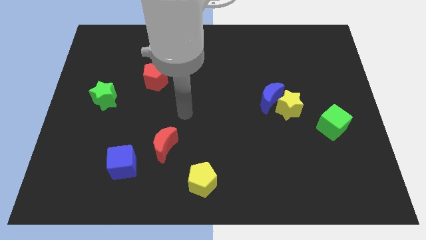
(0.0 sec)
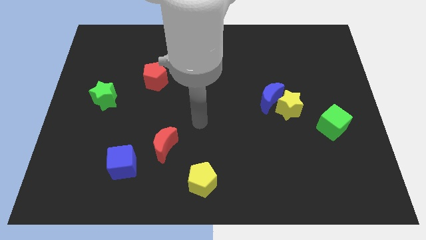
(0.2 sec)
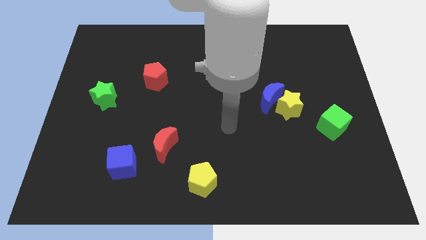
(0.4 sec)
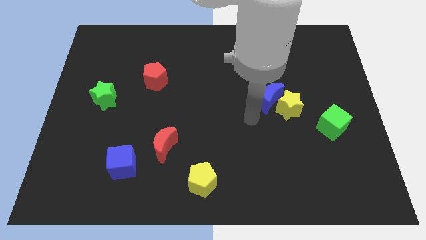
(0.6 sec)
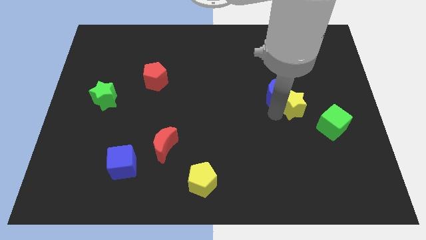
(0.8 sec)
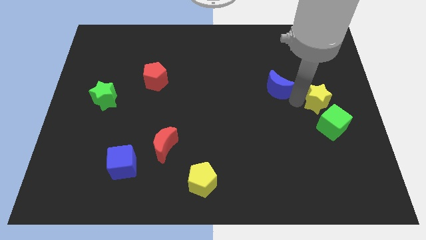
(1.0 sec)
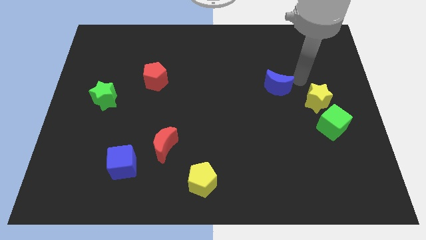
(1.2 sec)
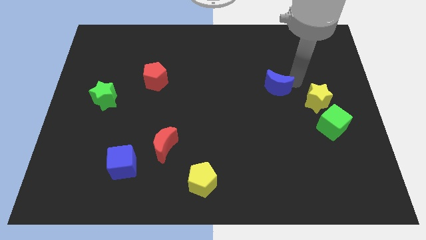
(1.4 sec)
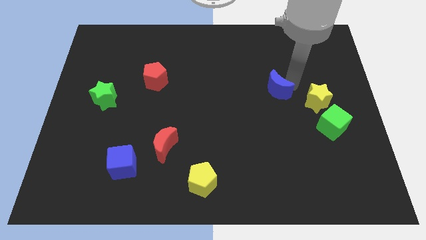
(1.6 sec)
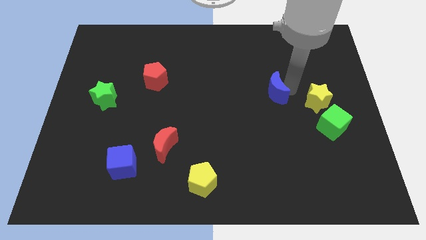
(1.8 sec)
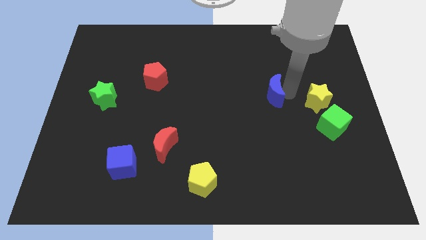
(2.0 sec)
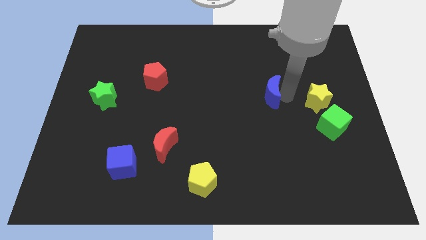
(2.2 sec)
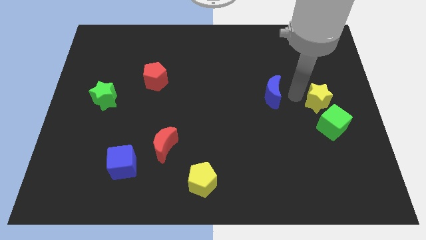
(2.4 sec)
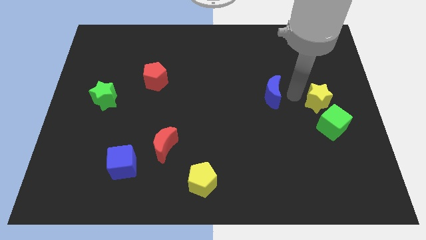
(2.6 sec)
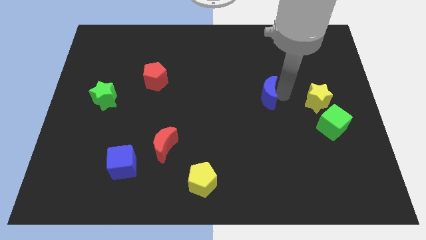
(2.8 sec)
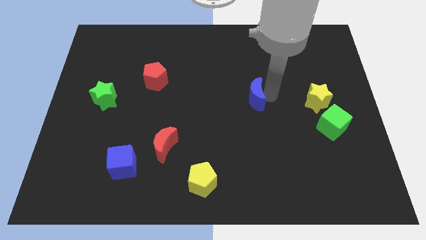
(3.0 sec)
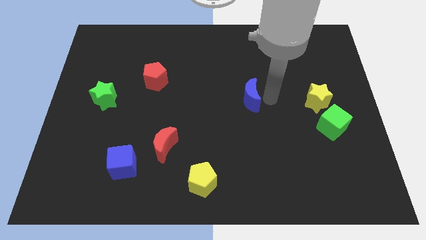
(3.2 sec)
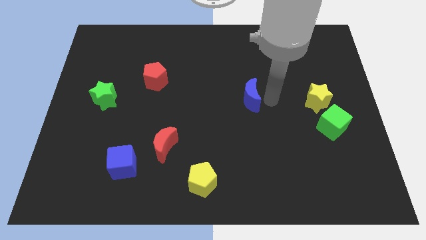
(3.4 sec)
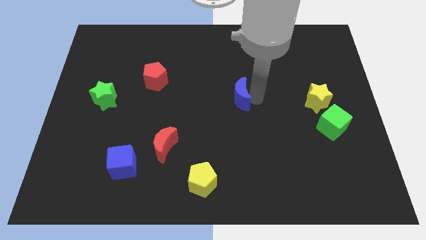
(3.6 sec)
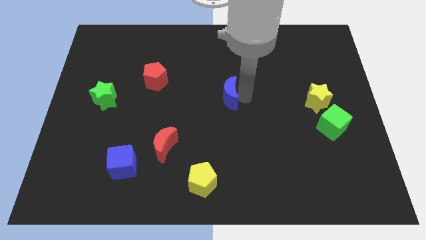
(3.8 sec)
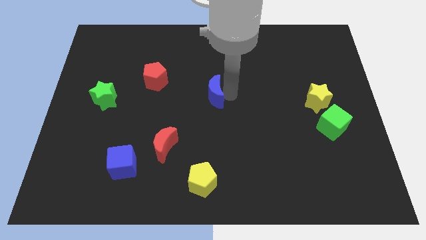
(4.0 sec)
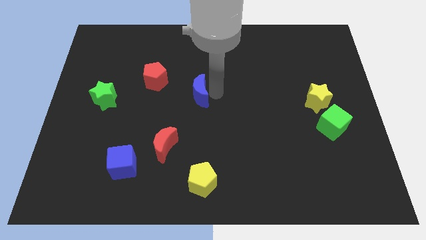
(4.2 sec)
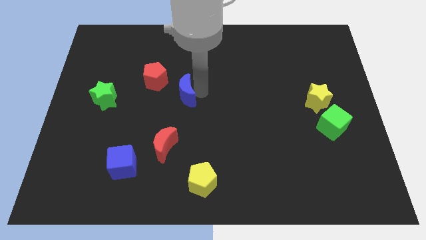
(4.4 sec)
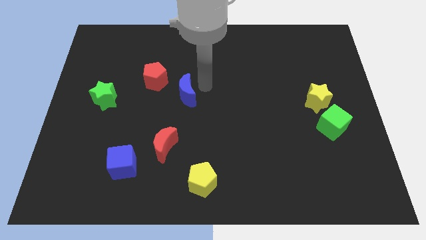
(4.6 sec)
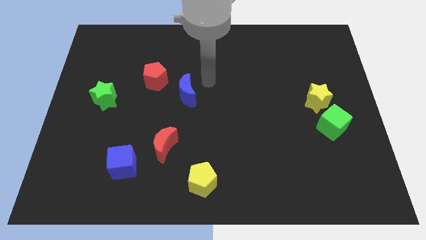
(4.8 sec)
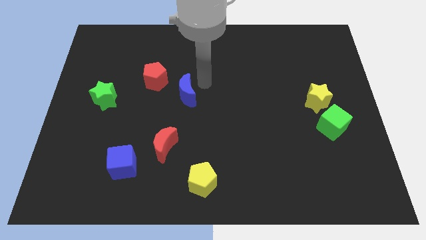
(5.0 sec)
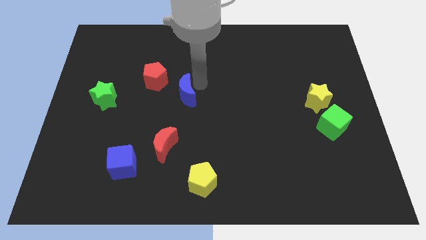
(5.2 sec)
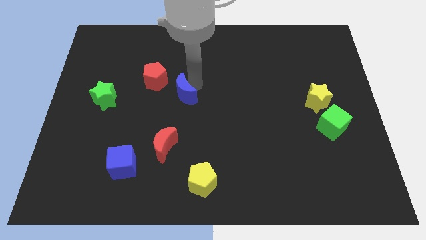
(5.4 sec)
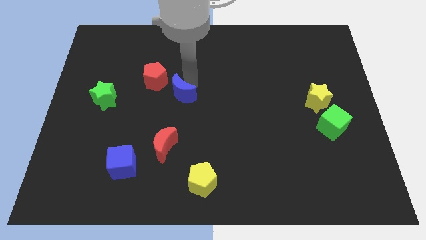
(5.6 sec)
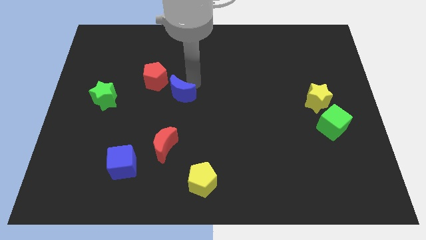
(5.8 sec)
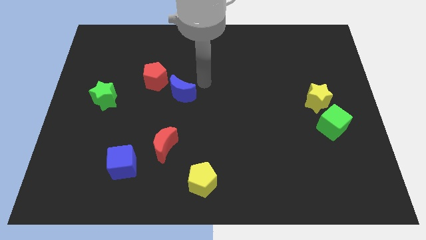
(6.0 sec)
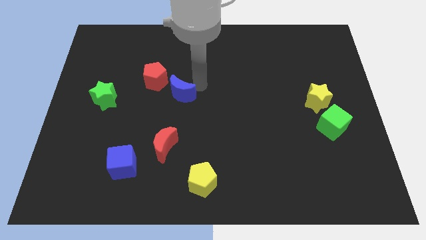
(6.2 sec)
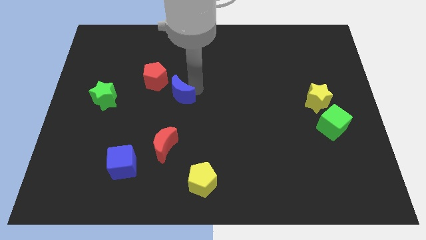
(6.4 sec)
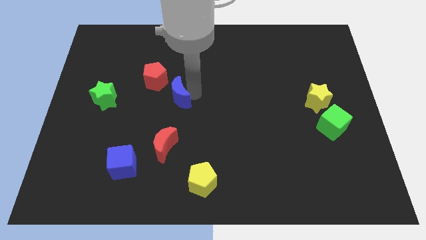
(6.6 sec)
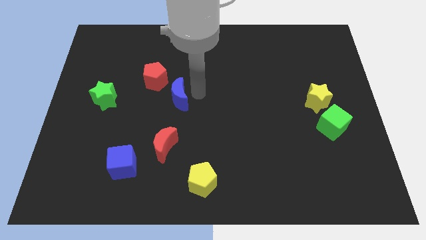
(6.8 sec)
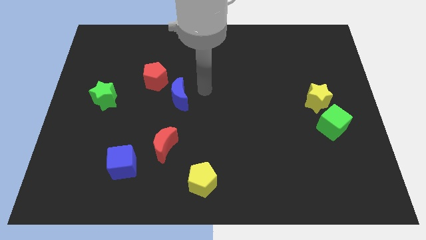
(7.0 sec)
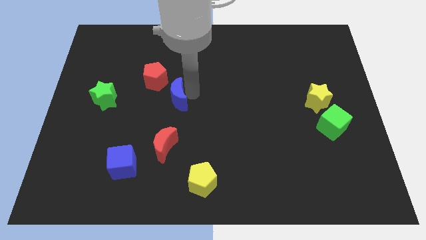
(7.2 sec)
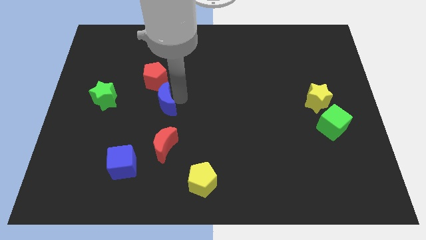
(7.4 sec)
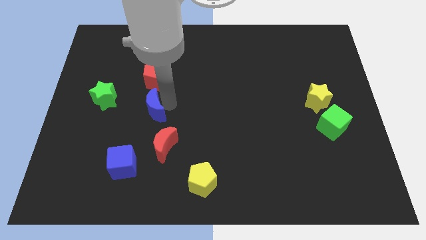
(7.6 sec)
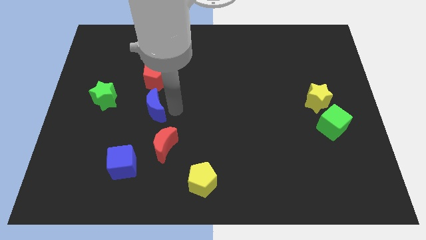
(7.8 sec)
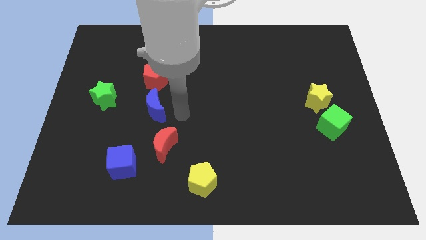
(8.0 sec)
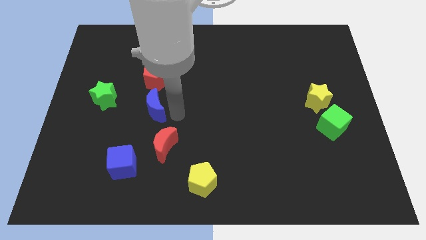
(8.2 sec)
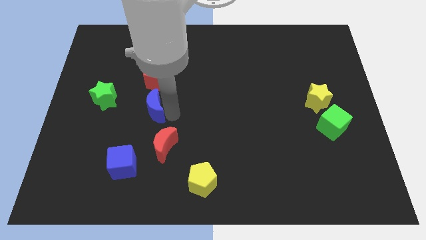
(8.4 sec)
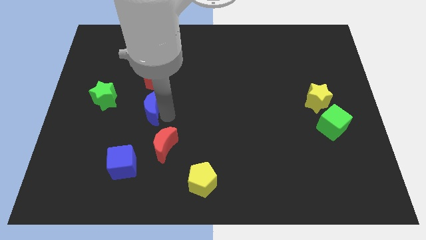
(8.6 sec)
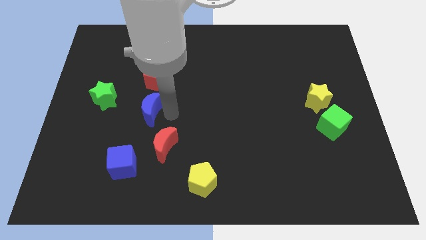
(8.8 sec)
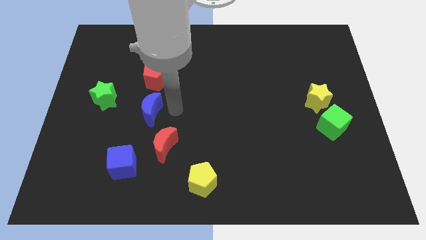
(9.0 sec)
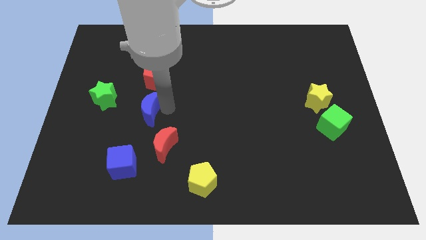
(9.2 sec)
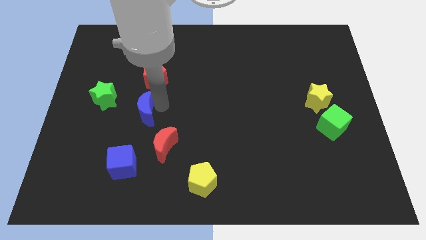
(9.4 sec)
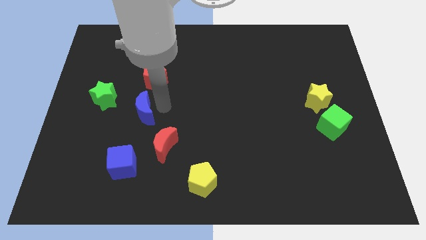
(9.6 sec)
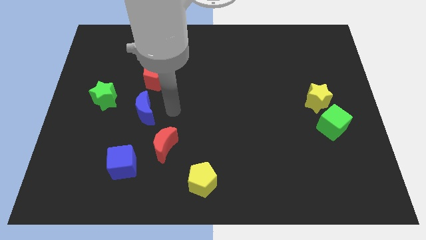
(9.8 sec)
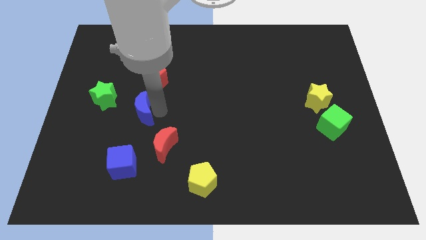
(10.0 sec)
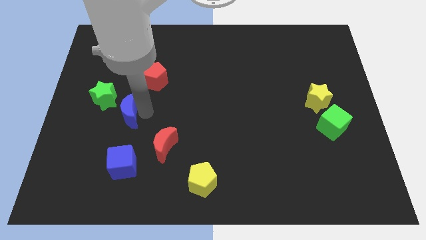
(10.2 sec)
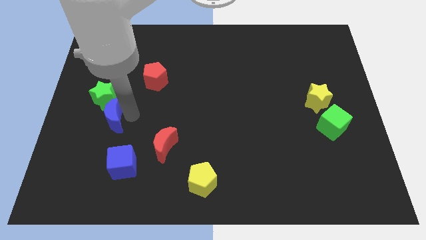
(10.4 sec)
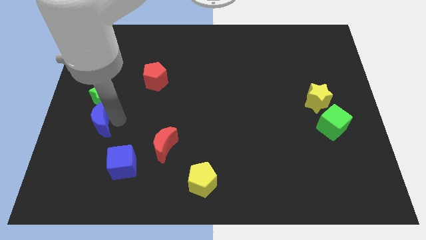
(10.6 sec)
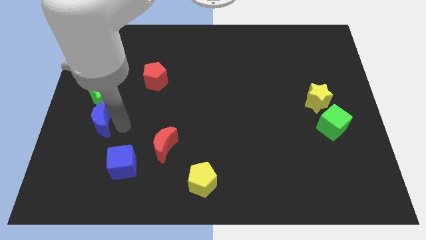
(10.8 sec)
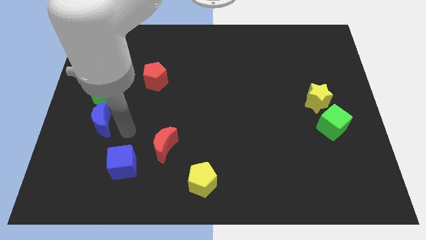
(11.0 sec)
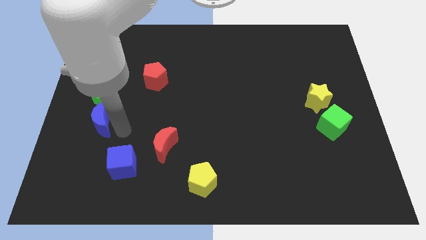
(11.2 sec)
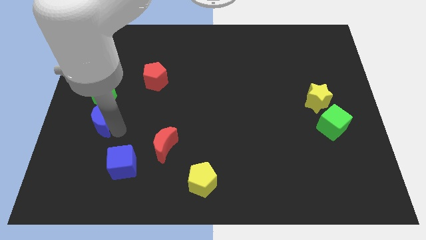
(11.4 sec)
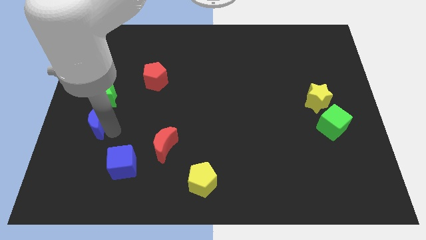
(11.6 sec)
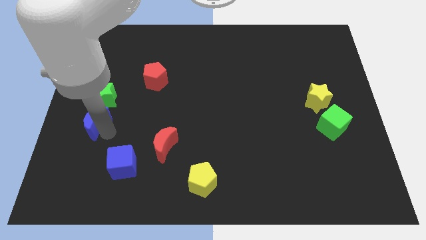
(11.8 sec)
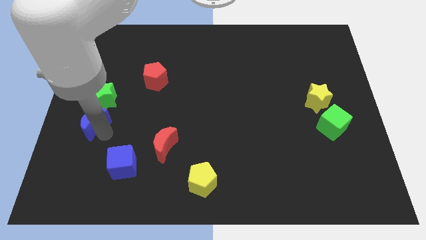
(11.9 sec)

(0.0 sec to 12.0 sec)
put the blue moon to the left side of the board

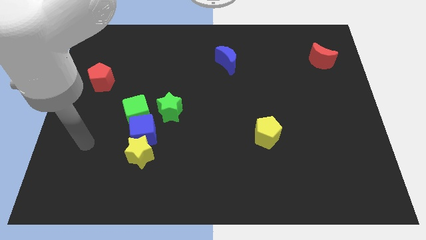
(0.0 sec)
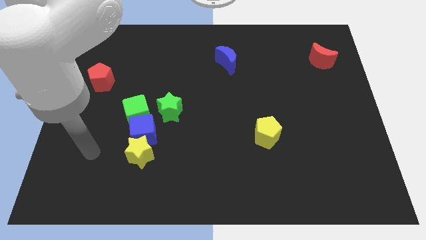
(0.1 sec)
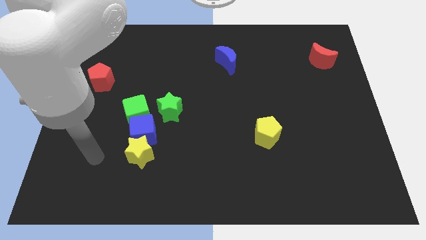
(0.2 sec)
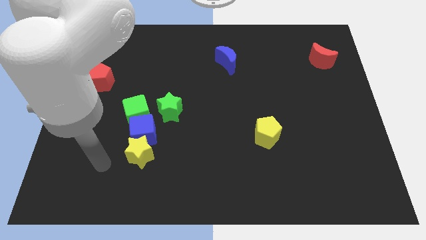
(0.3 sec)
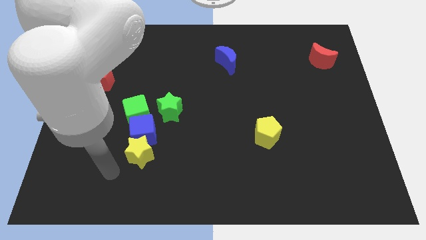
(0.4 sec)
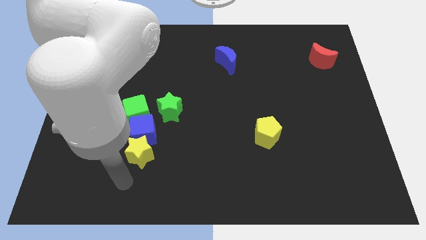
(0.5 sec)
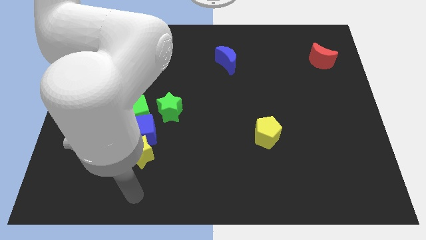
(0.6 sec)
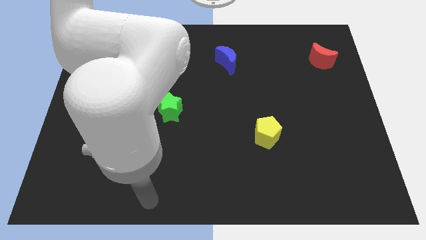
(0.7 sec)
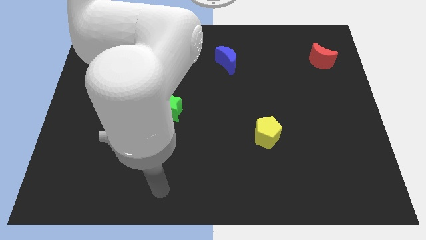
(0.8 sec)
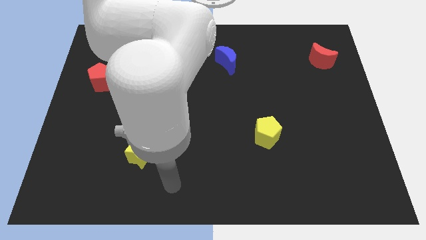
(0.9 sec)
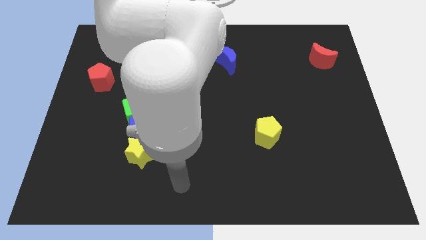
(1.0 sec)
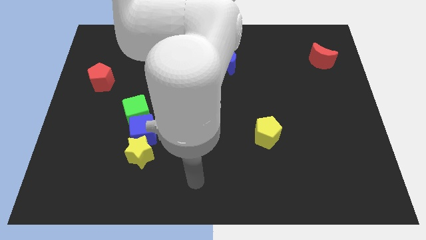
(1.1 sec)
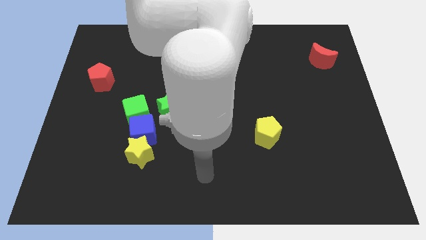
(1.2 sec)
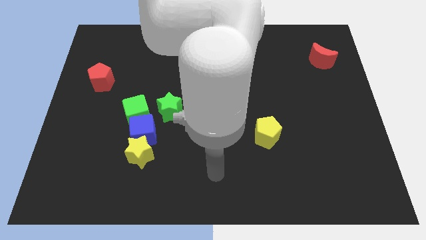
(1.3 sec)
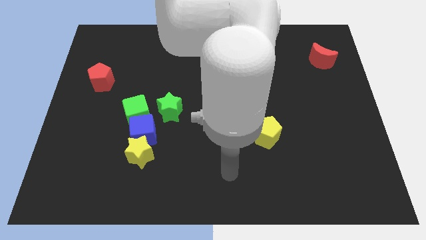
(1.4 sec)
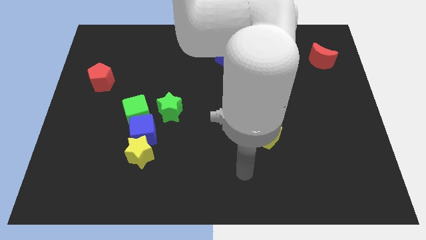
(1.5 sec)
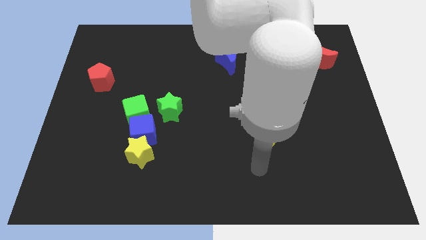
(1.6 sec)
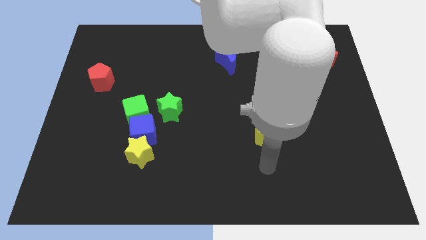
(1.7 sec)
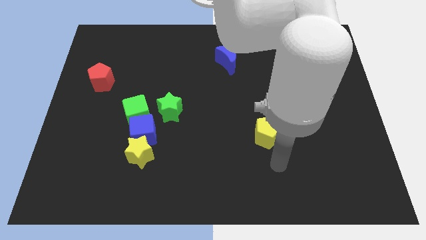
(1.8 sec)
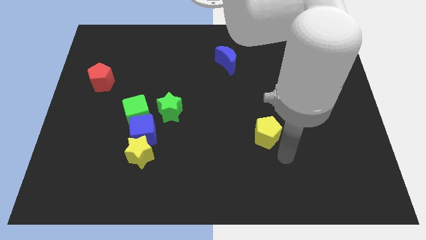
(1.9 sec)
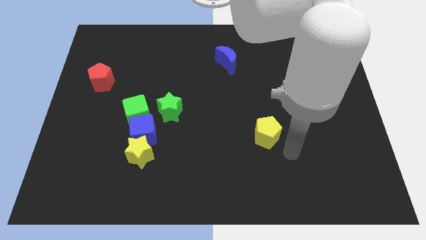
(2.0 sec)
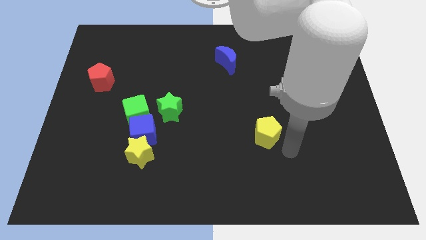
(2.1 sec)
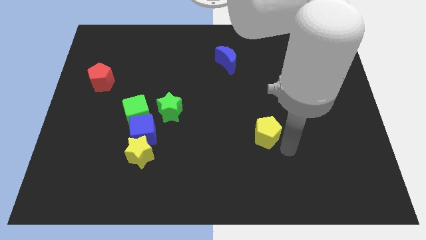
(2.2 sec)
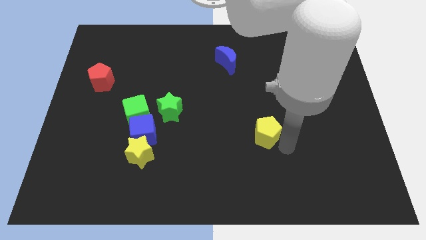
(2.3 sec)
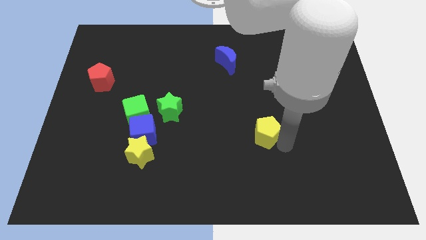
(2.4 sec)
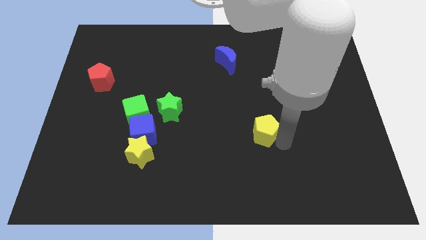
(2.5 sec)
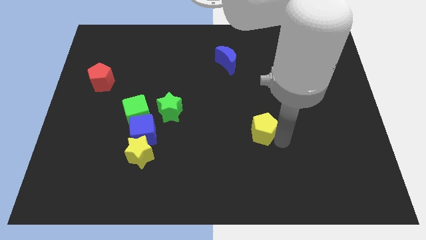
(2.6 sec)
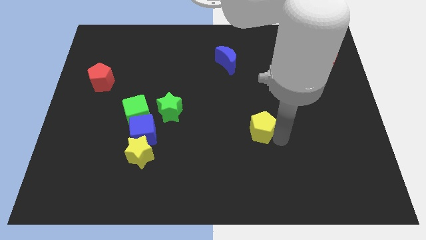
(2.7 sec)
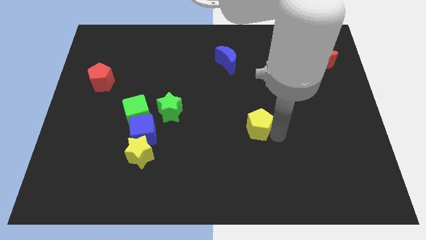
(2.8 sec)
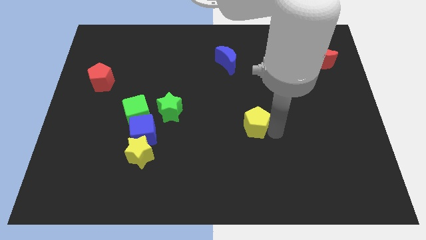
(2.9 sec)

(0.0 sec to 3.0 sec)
slide the yellow pentagon to the middle
